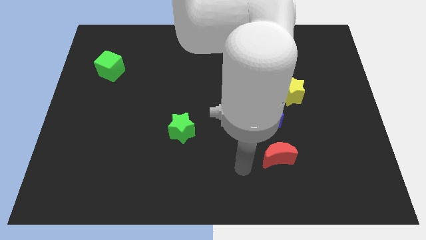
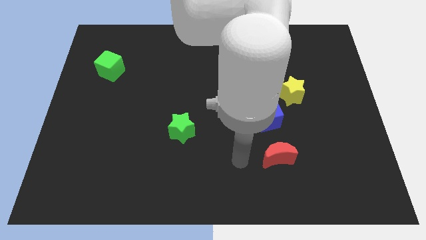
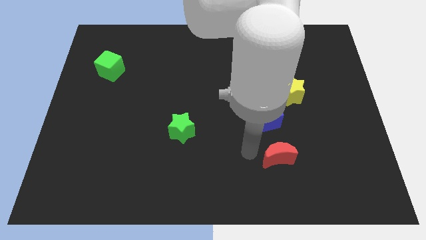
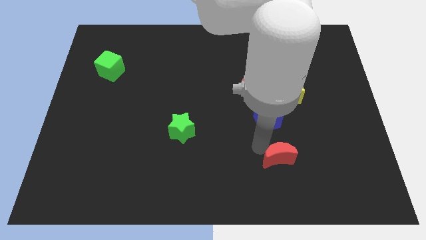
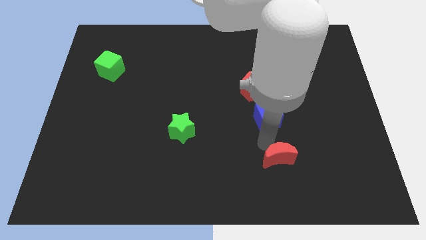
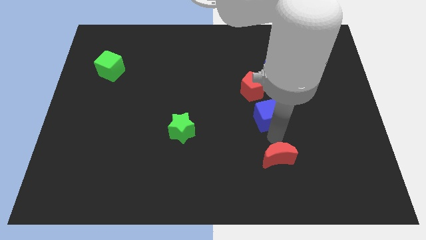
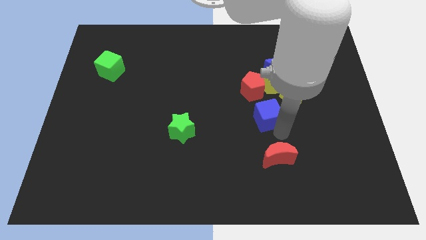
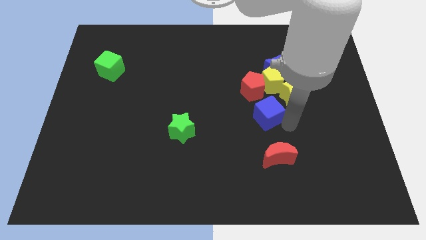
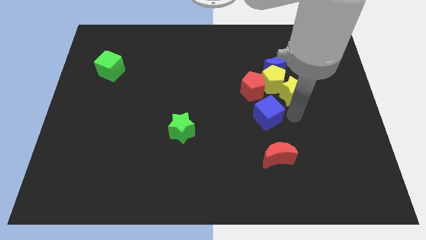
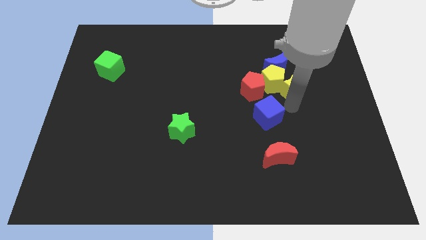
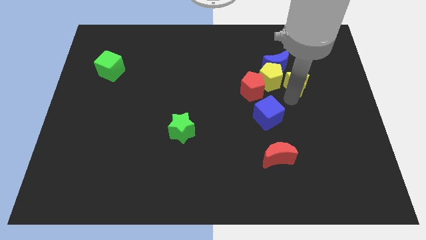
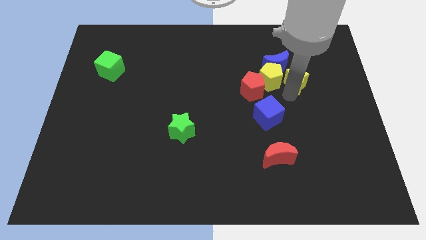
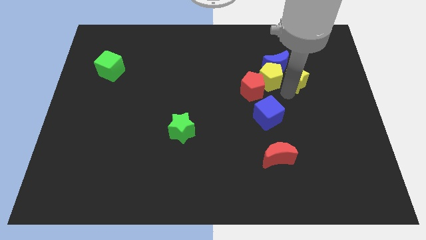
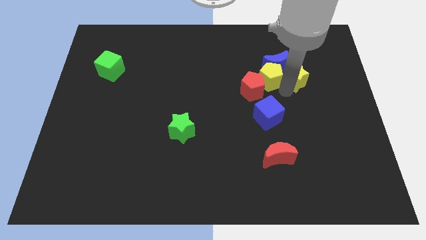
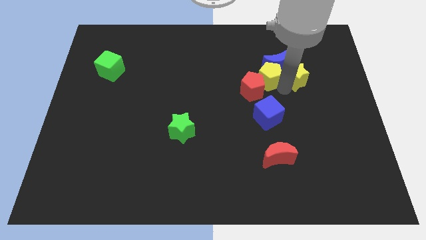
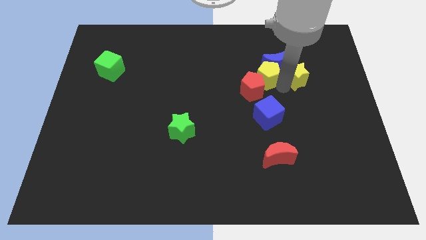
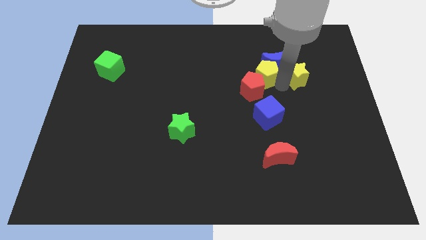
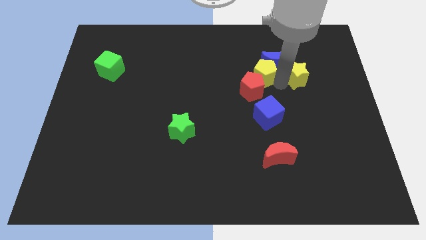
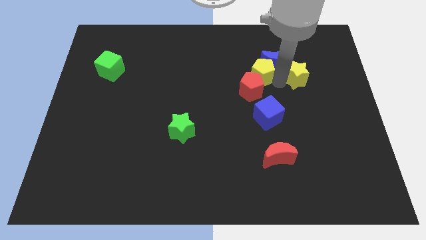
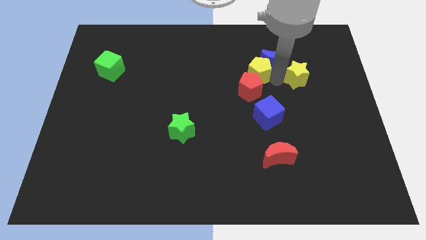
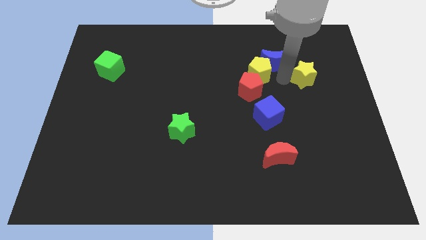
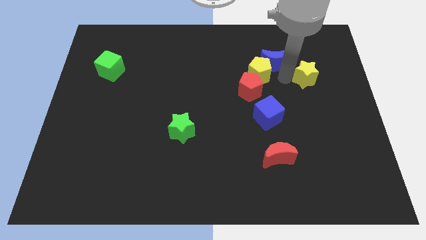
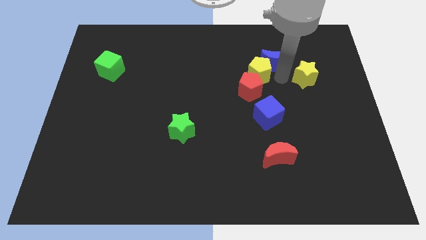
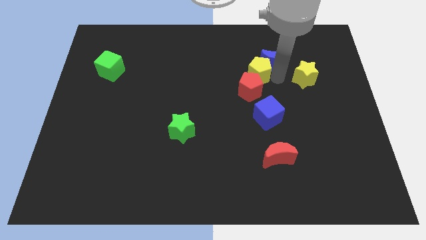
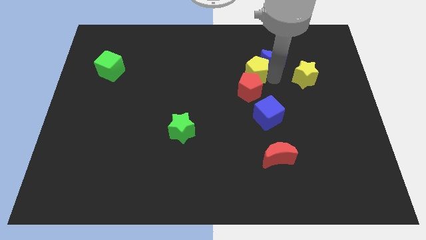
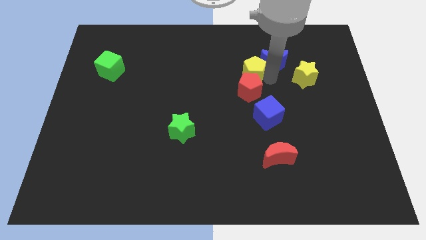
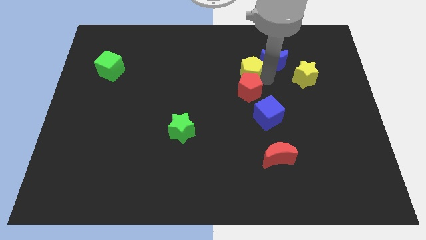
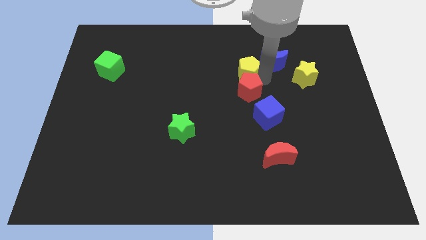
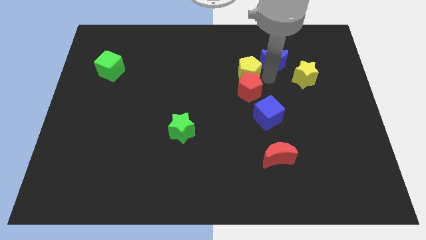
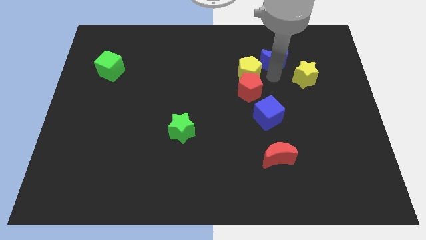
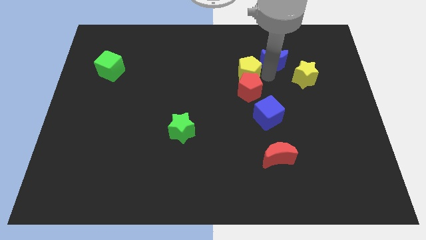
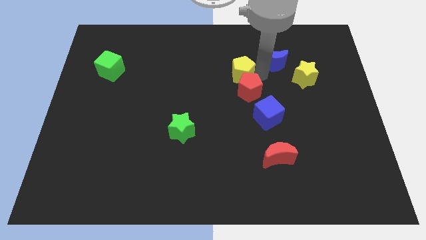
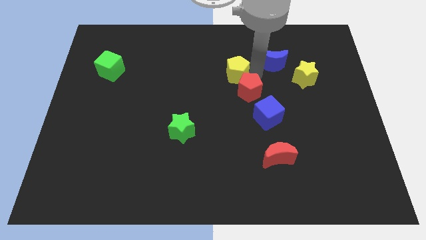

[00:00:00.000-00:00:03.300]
separate the yellow pentagon from the group of blocks

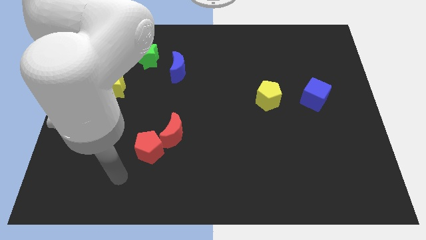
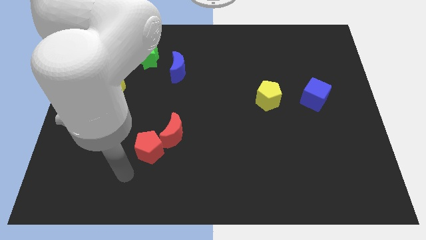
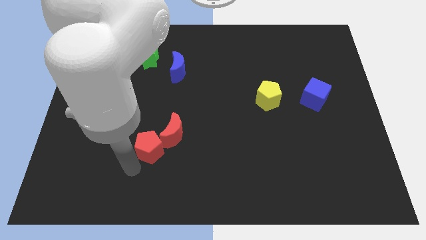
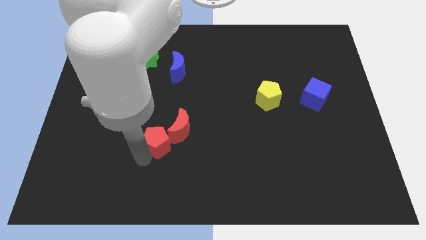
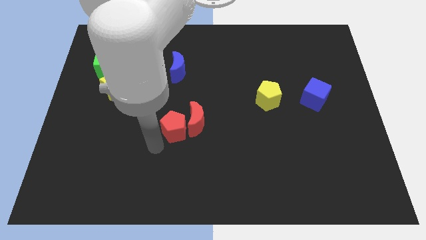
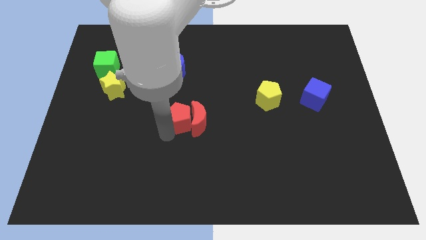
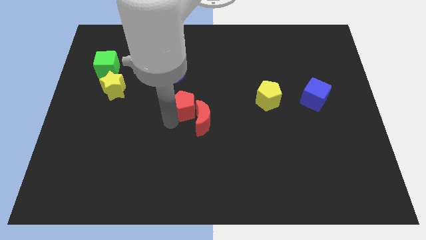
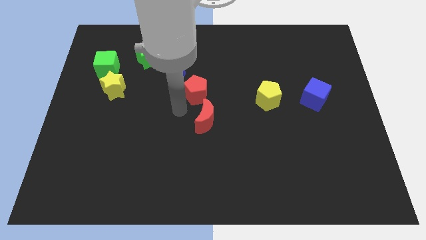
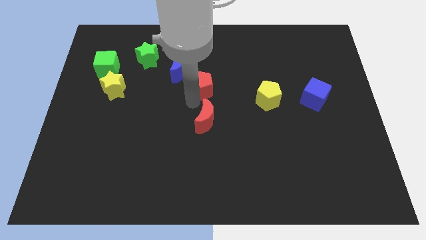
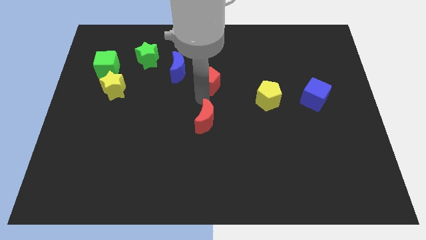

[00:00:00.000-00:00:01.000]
pull the red moon apart from the red pentagon

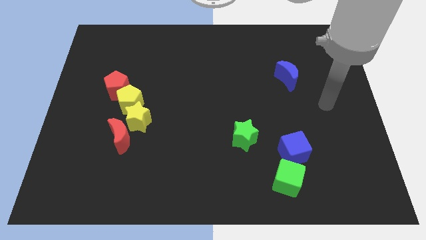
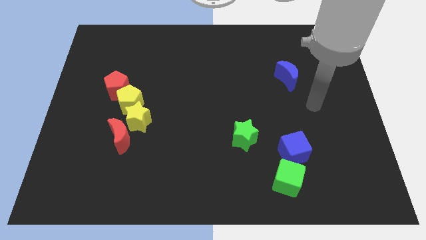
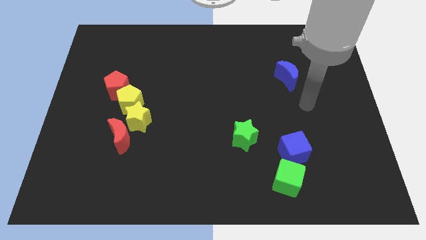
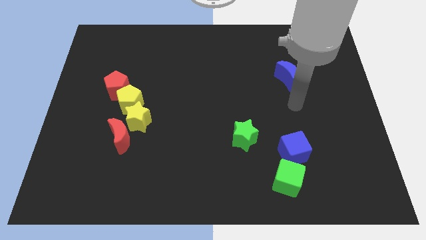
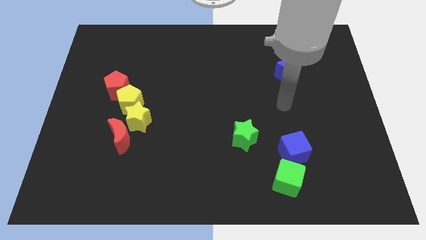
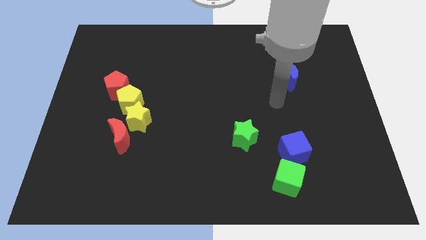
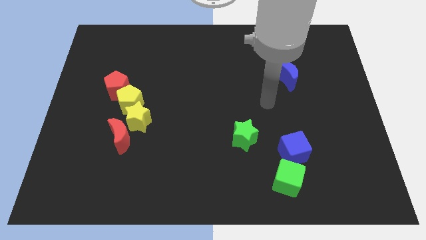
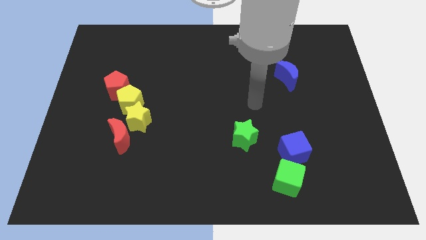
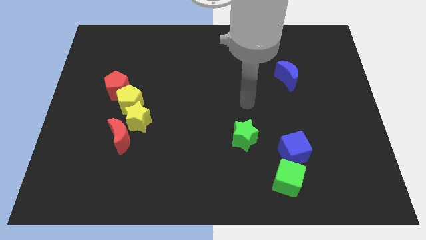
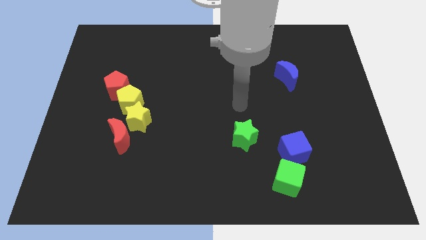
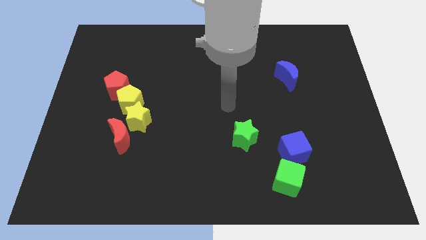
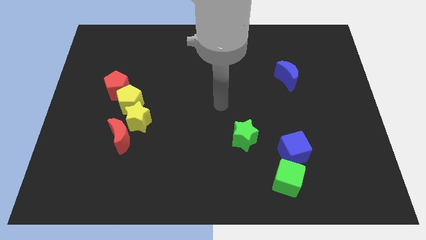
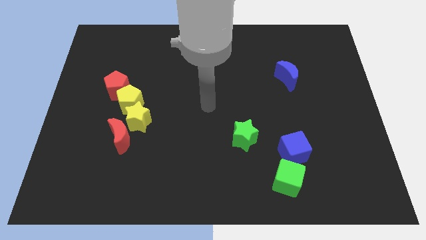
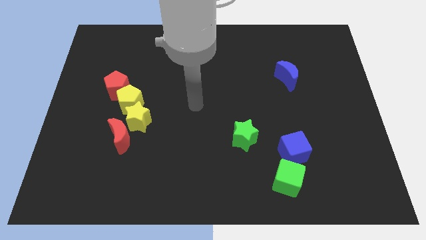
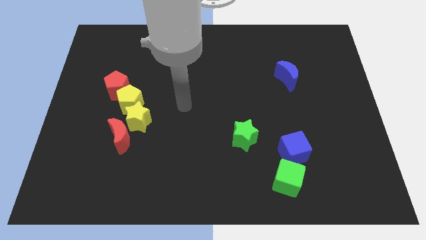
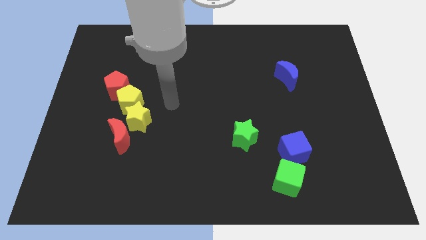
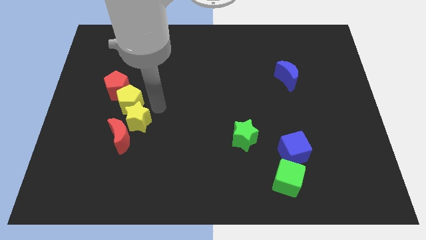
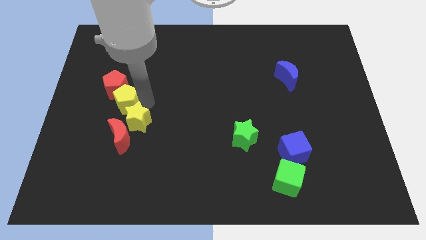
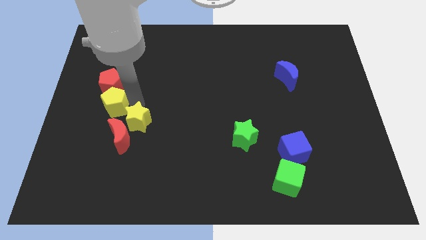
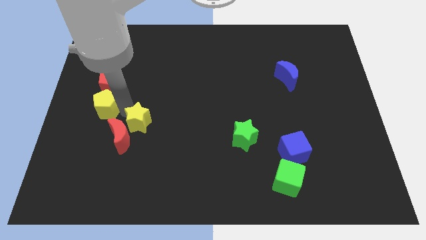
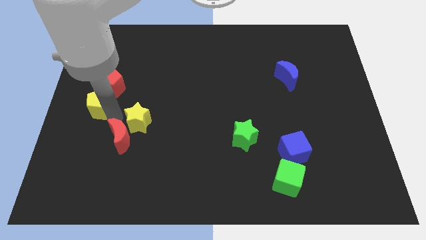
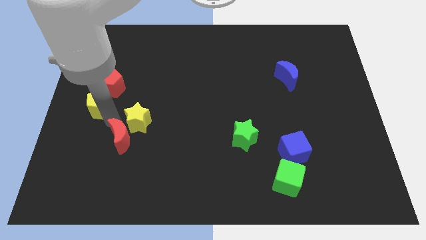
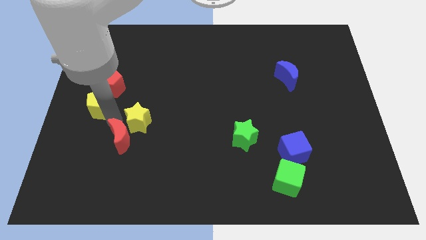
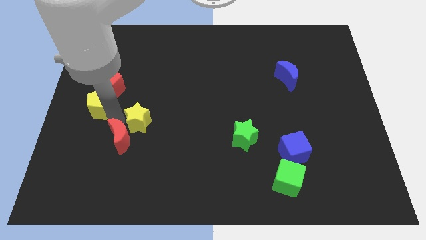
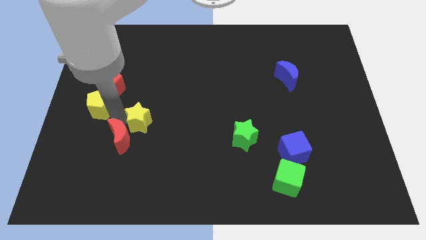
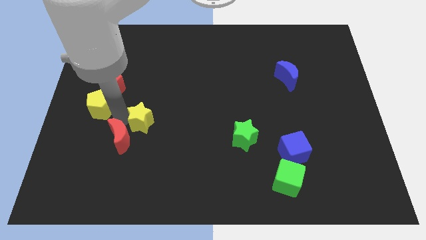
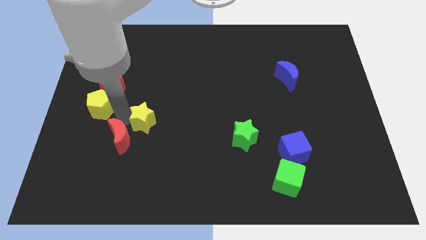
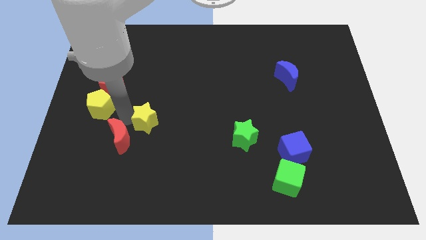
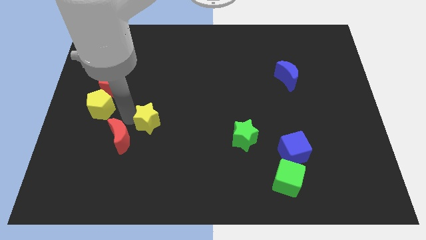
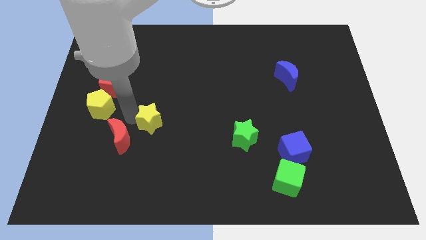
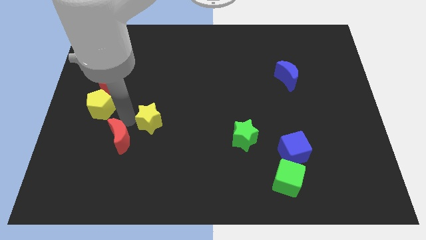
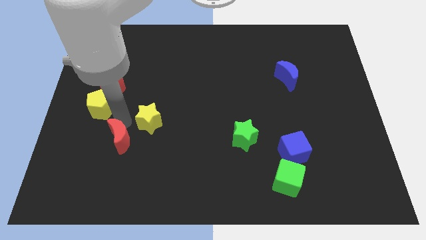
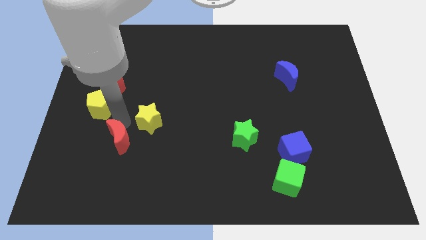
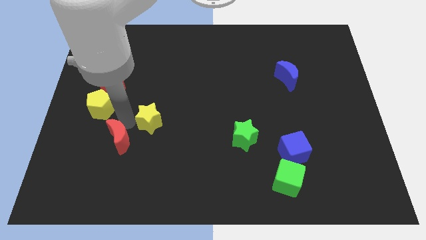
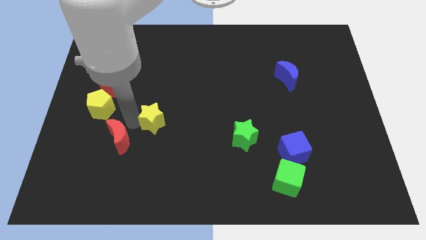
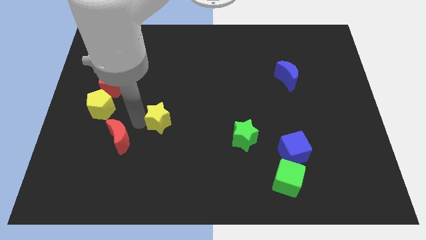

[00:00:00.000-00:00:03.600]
move the yellow star away from the yellow pentagon and red moon

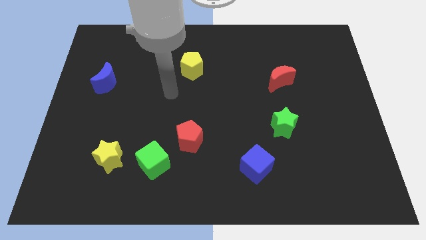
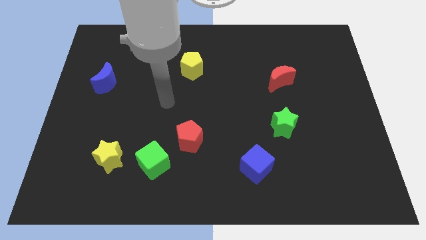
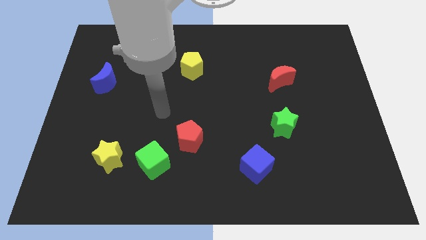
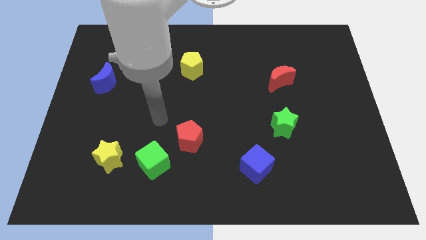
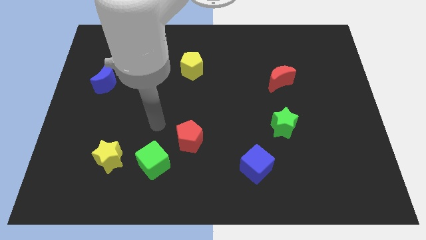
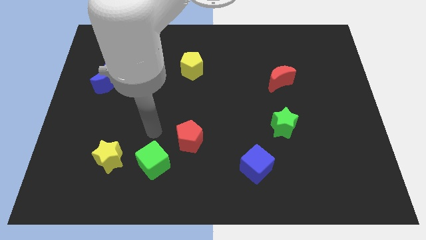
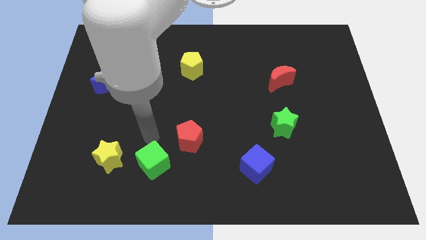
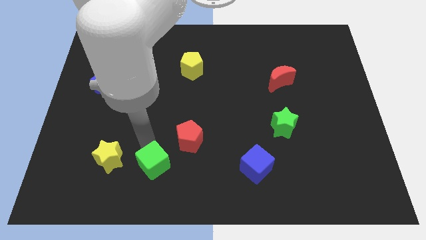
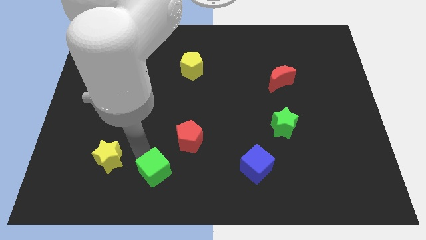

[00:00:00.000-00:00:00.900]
move the yellow star away from the green cube

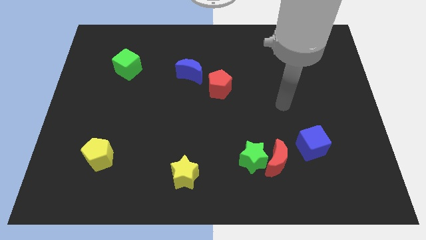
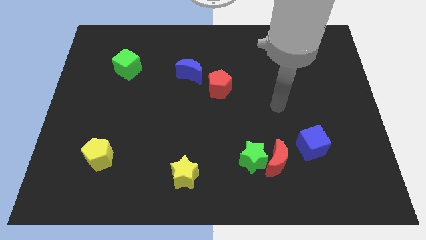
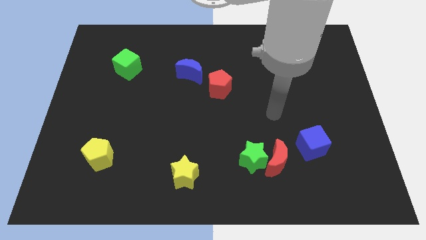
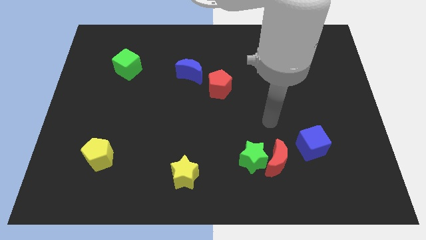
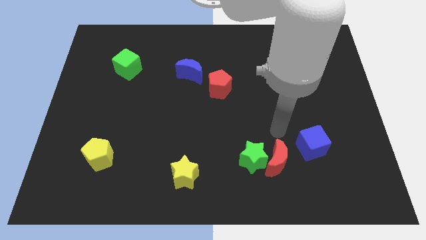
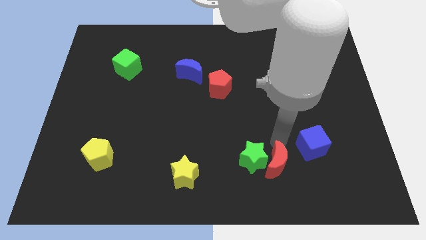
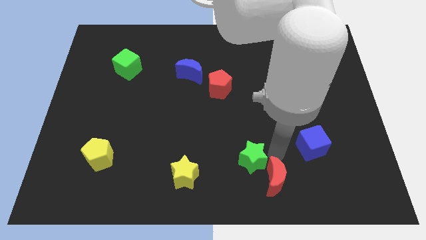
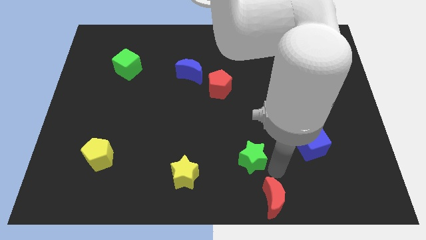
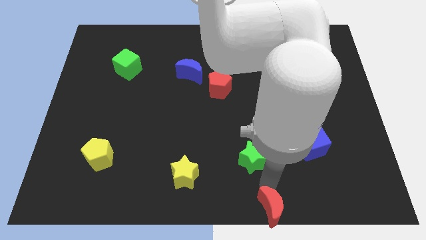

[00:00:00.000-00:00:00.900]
move the green star away from the red moon
